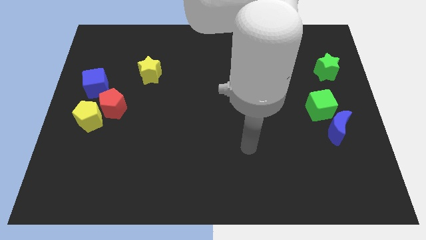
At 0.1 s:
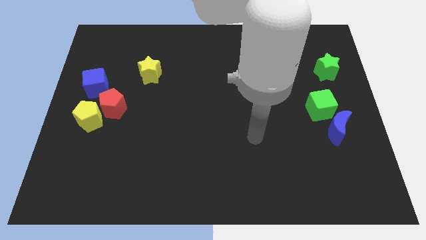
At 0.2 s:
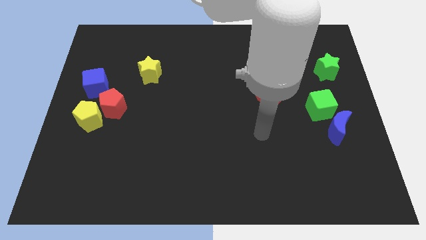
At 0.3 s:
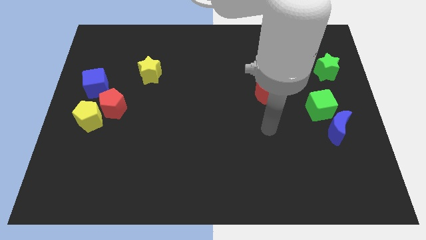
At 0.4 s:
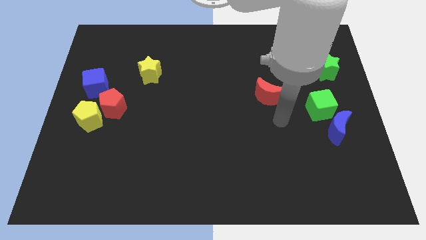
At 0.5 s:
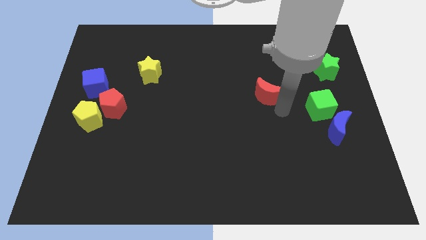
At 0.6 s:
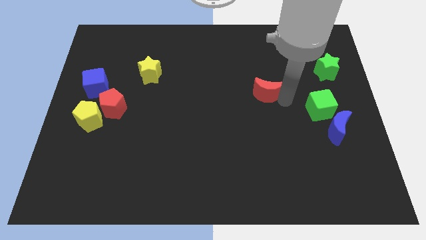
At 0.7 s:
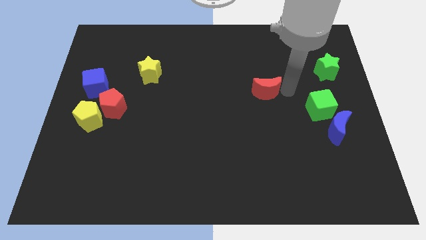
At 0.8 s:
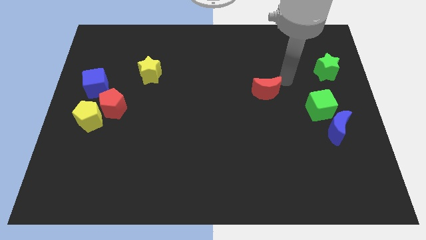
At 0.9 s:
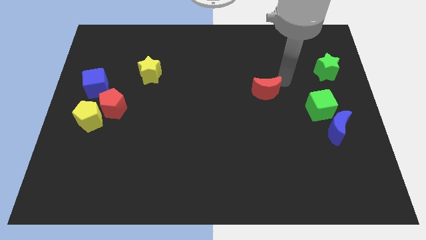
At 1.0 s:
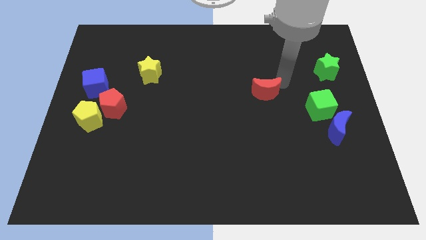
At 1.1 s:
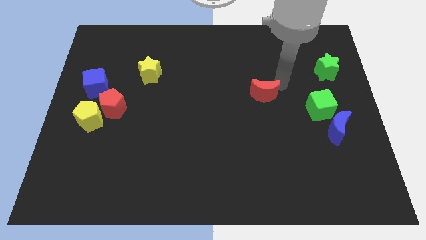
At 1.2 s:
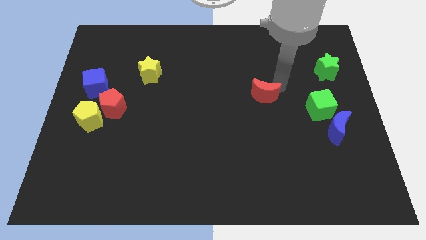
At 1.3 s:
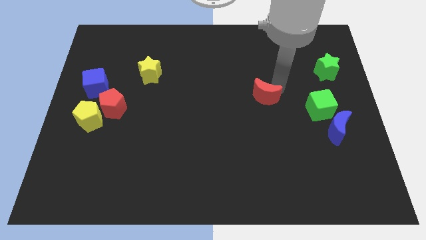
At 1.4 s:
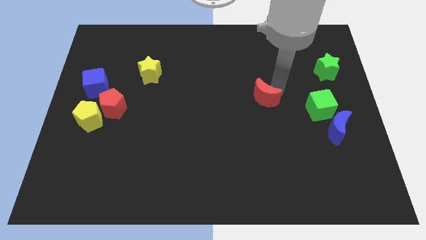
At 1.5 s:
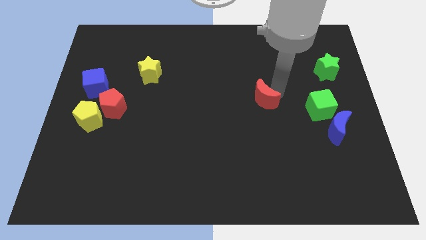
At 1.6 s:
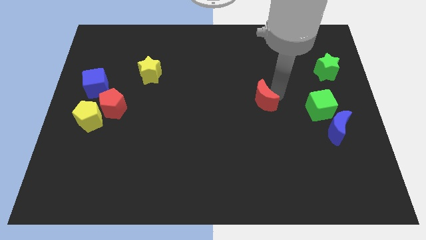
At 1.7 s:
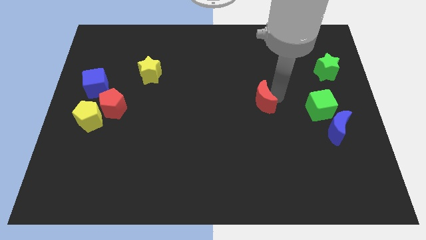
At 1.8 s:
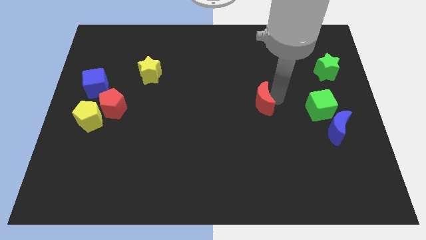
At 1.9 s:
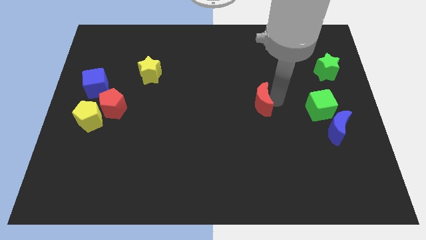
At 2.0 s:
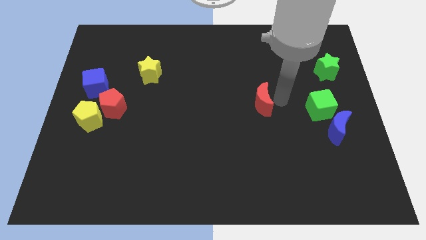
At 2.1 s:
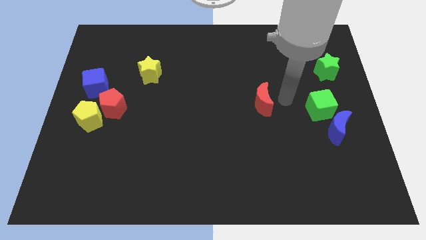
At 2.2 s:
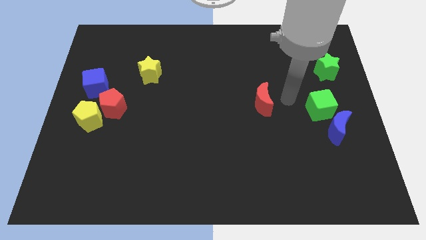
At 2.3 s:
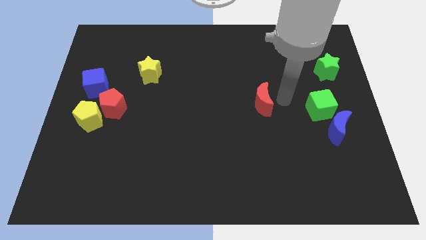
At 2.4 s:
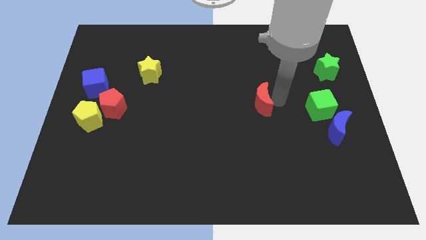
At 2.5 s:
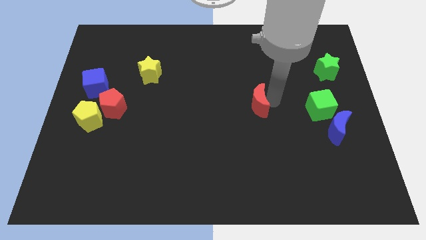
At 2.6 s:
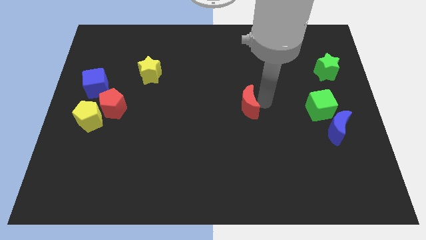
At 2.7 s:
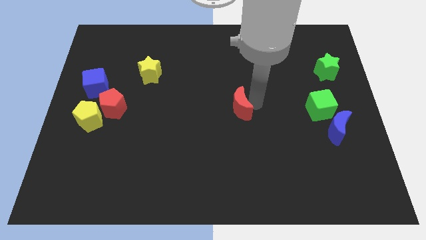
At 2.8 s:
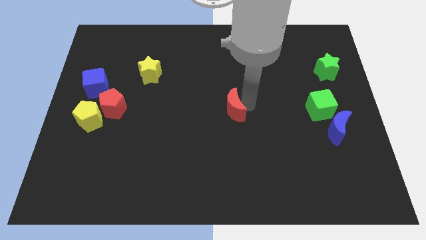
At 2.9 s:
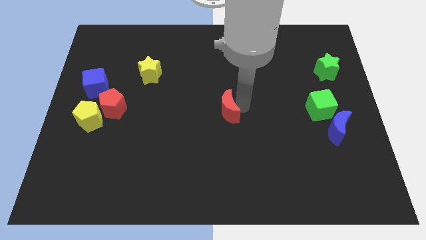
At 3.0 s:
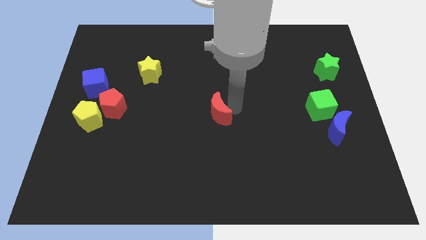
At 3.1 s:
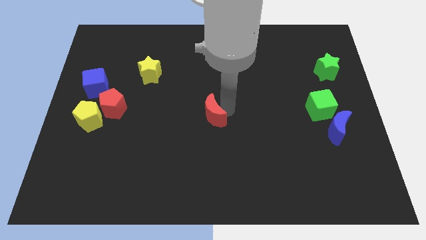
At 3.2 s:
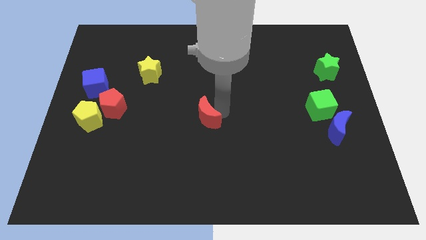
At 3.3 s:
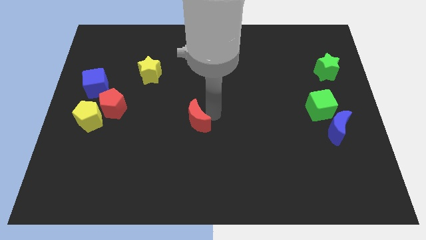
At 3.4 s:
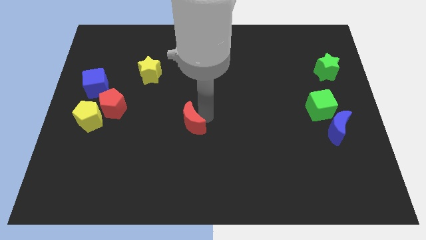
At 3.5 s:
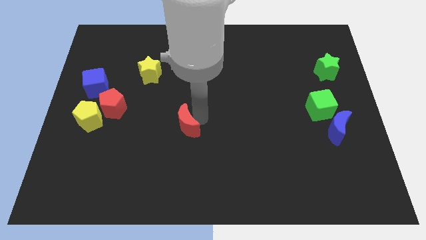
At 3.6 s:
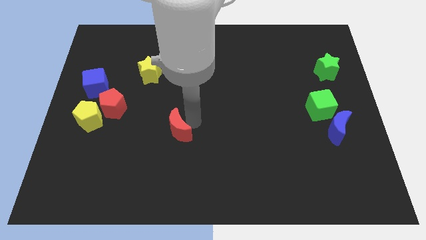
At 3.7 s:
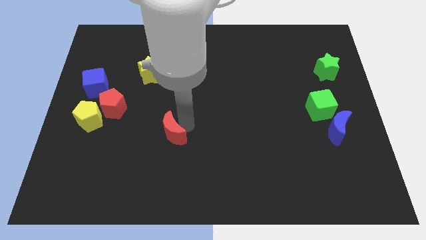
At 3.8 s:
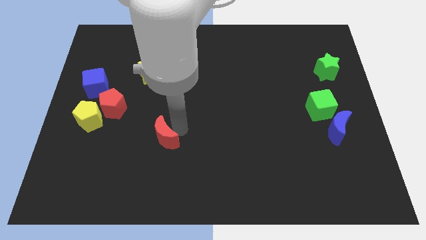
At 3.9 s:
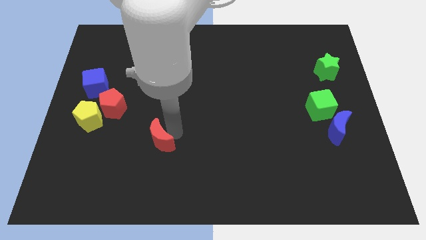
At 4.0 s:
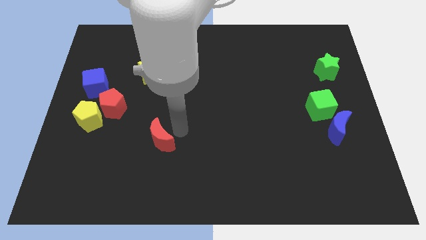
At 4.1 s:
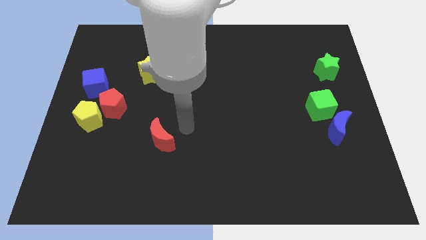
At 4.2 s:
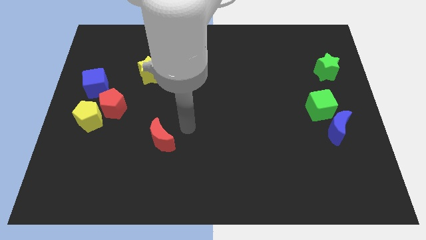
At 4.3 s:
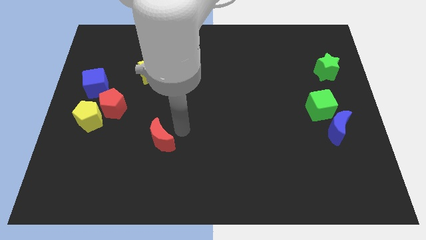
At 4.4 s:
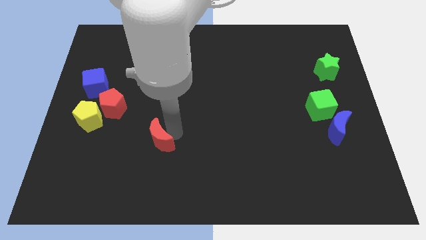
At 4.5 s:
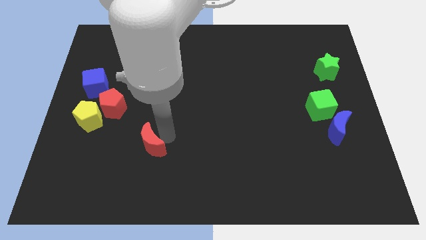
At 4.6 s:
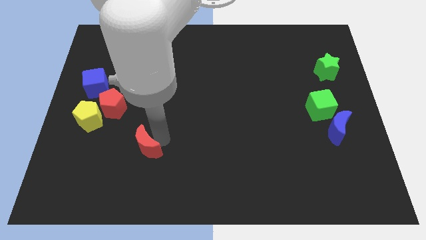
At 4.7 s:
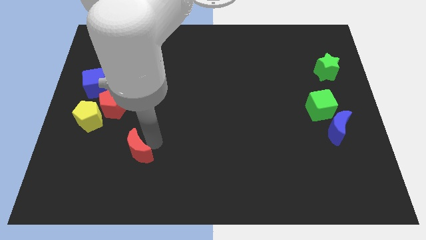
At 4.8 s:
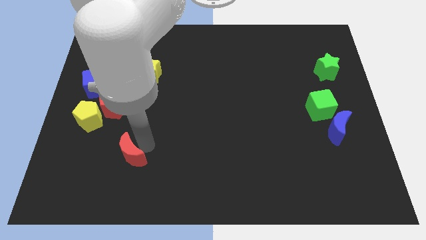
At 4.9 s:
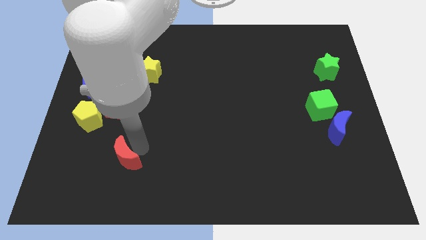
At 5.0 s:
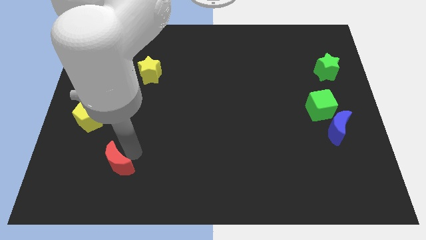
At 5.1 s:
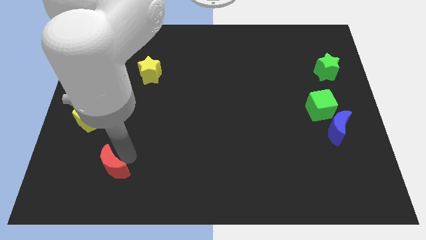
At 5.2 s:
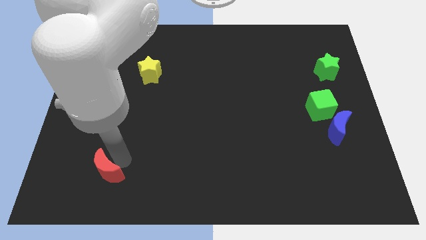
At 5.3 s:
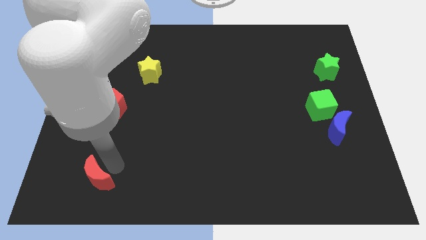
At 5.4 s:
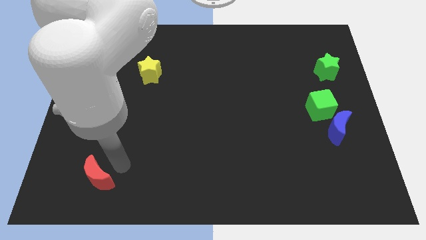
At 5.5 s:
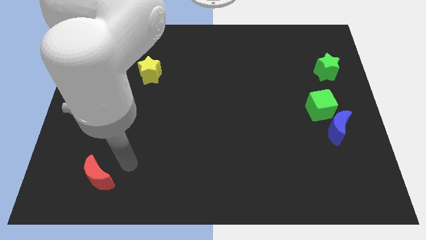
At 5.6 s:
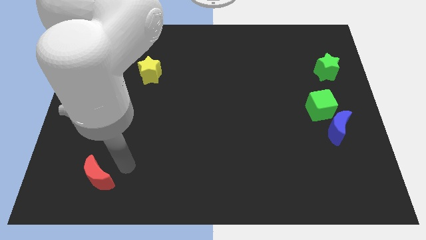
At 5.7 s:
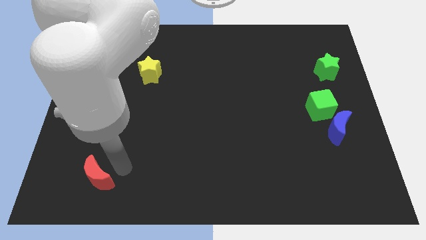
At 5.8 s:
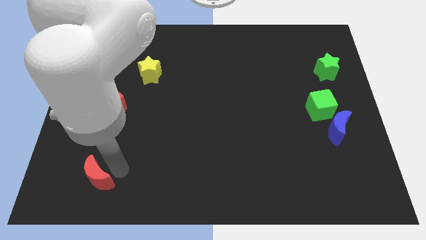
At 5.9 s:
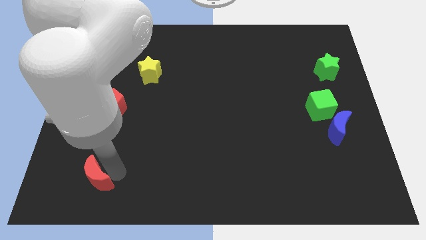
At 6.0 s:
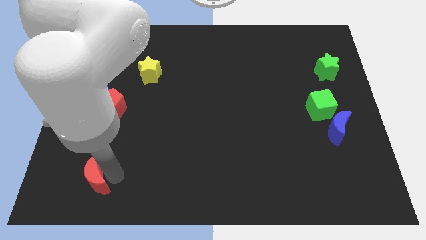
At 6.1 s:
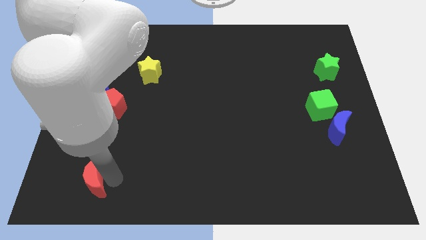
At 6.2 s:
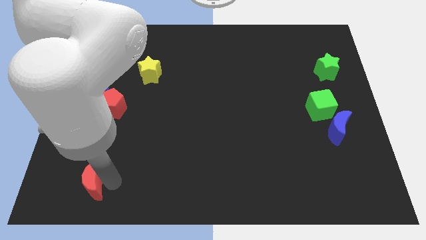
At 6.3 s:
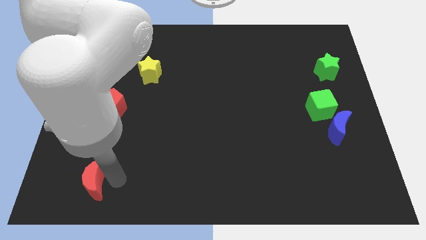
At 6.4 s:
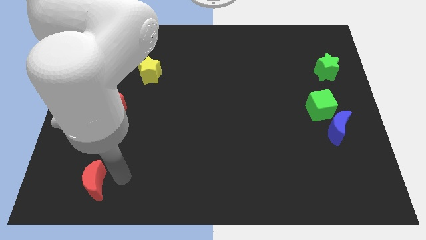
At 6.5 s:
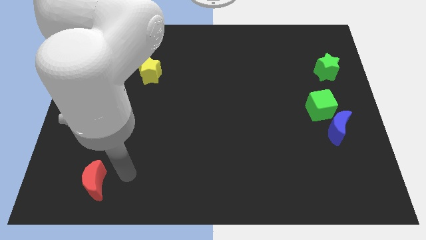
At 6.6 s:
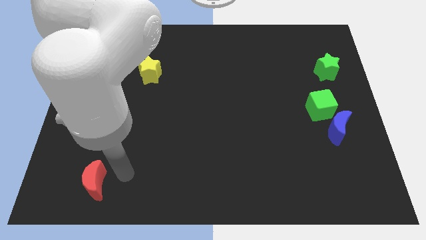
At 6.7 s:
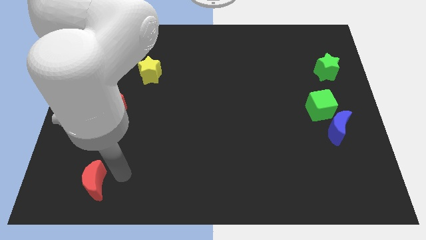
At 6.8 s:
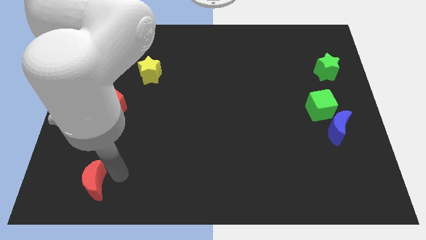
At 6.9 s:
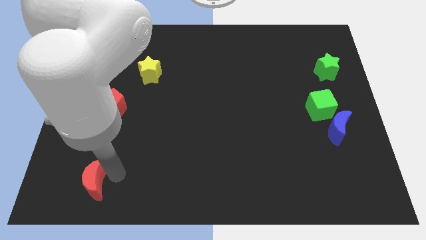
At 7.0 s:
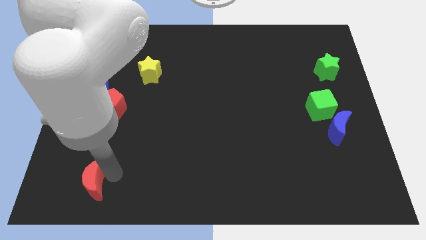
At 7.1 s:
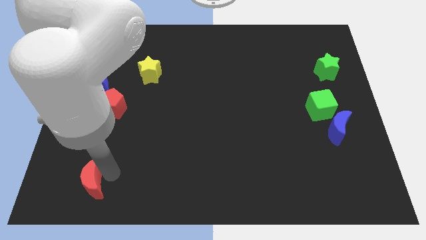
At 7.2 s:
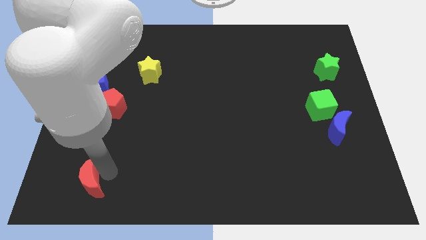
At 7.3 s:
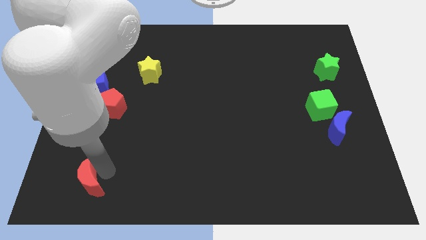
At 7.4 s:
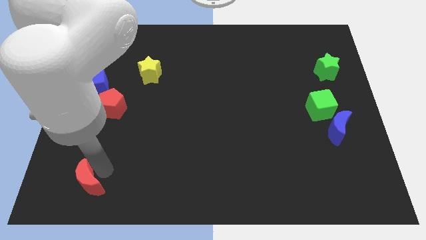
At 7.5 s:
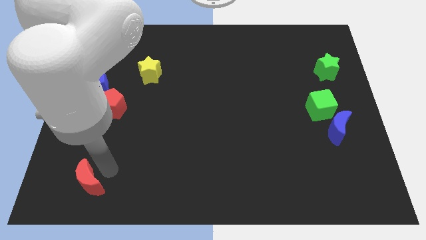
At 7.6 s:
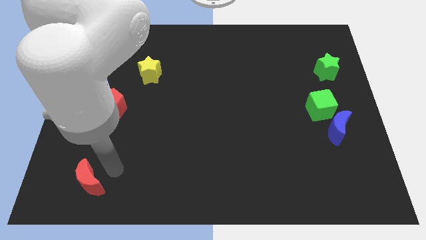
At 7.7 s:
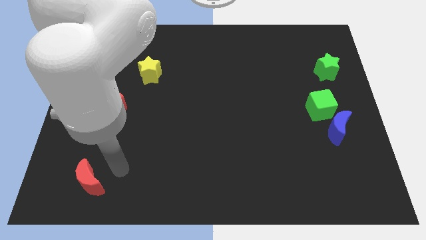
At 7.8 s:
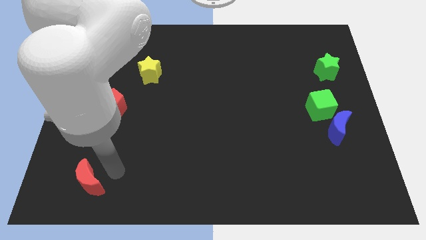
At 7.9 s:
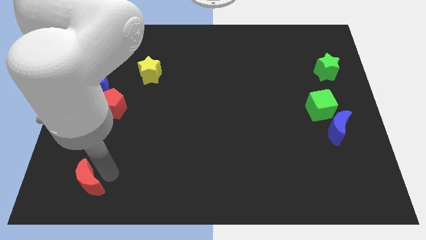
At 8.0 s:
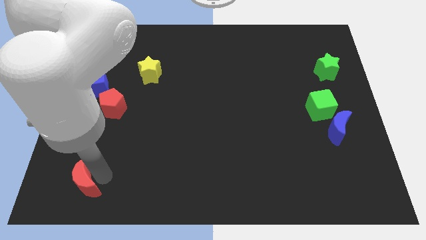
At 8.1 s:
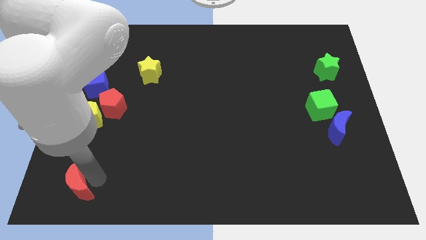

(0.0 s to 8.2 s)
push the red moon to the lower left corner
